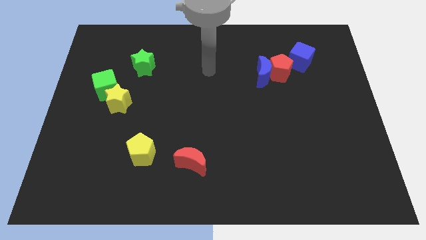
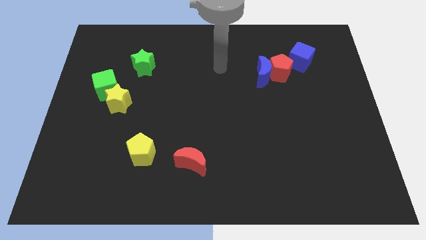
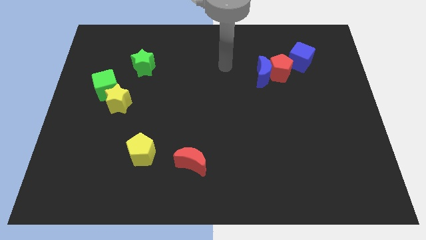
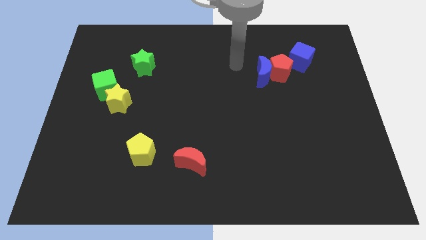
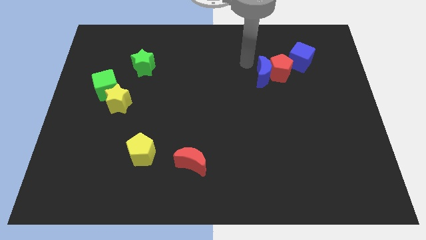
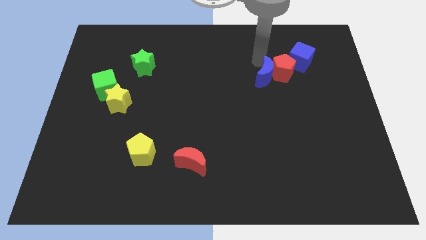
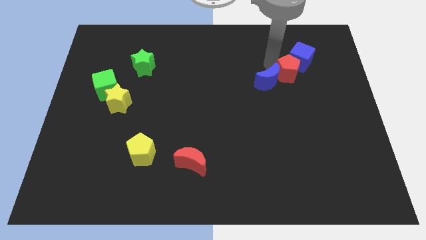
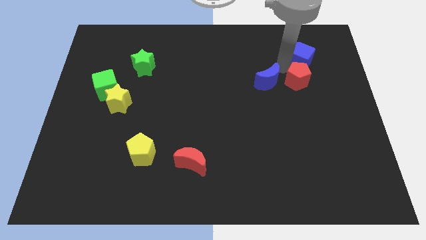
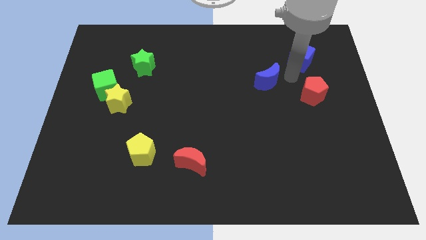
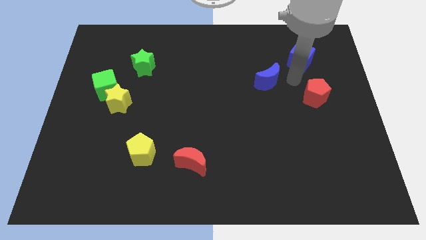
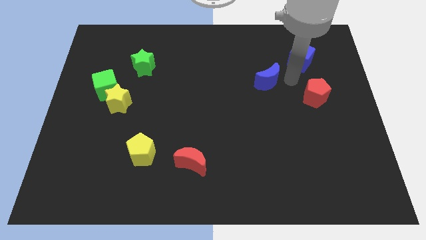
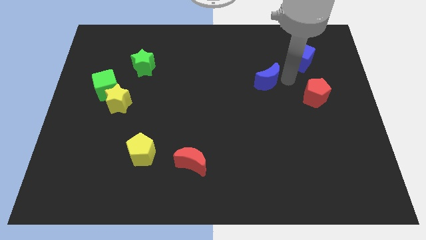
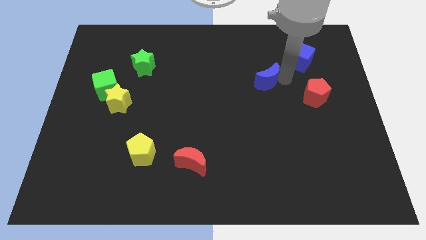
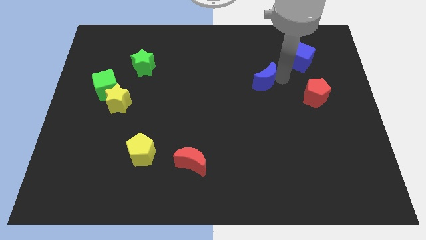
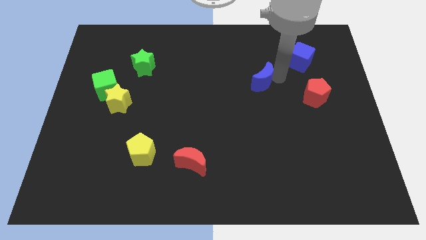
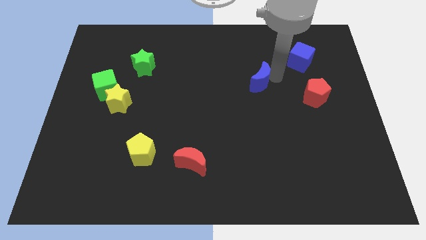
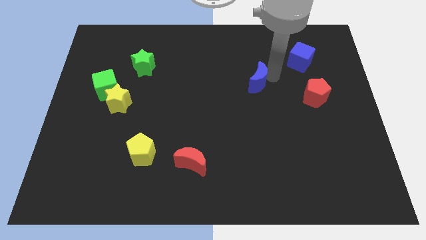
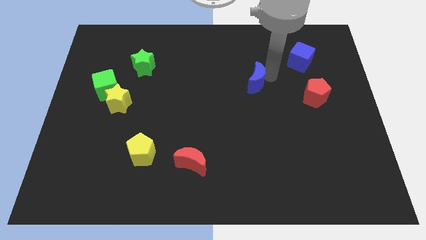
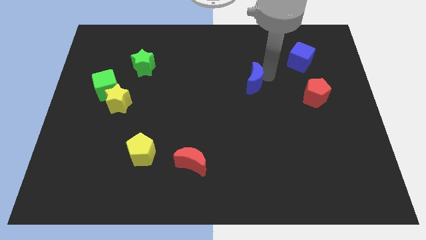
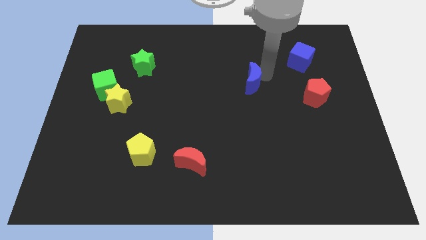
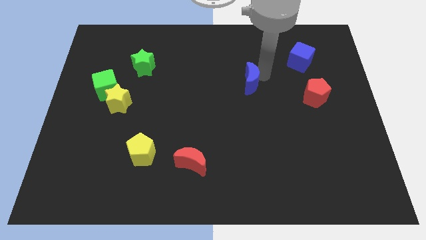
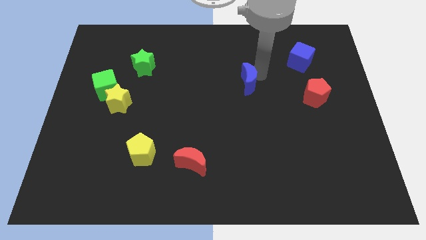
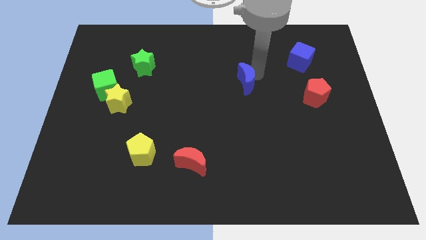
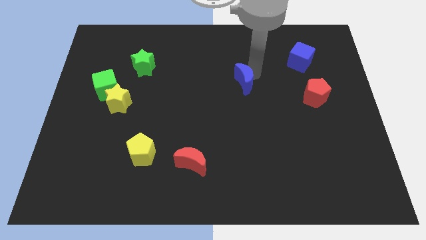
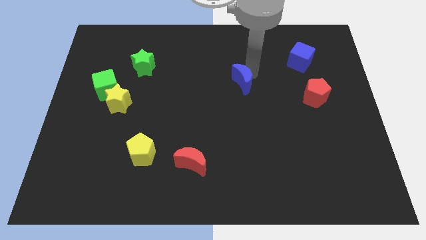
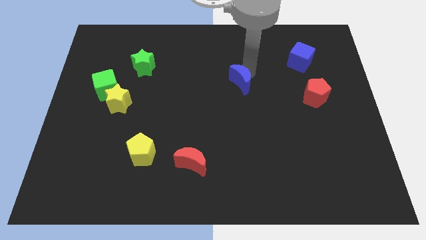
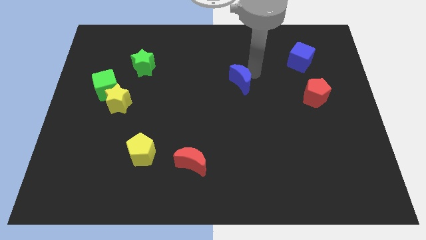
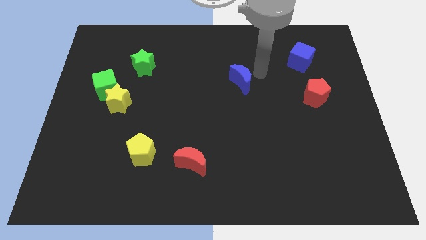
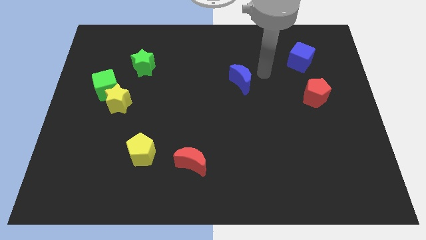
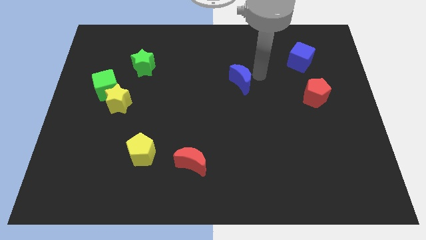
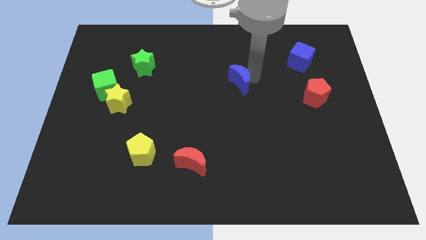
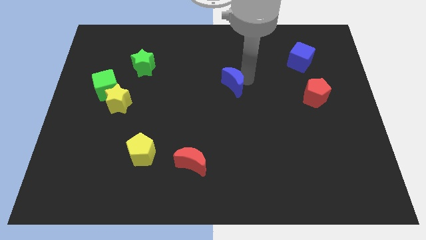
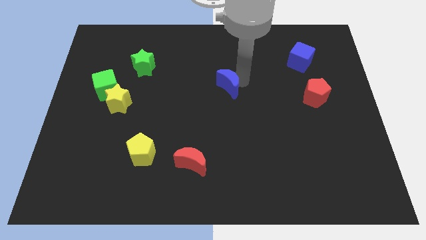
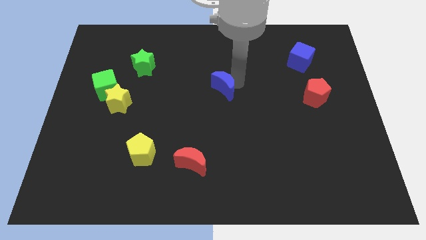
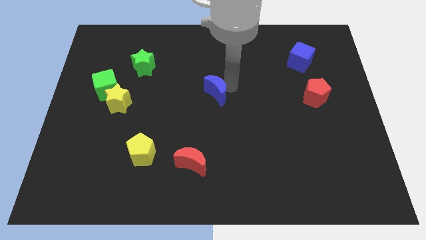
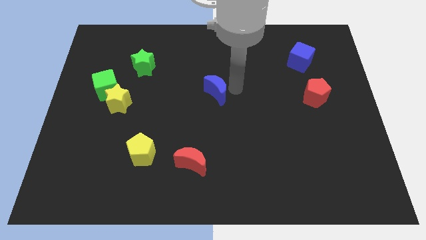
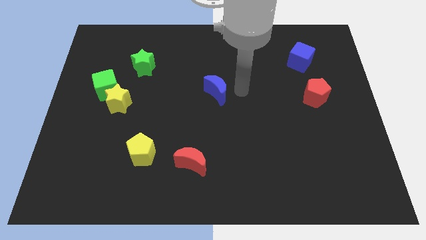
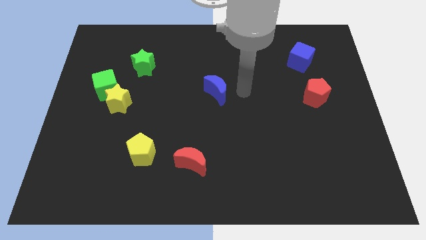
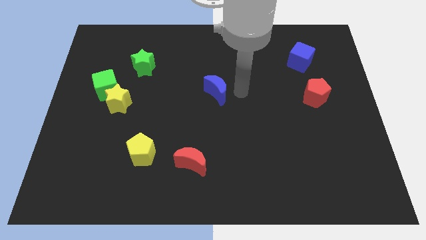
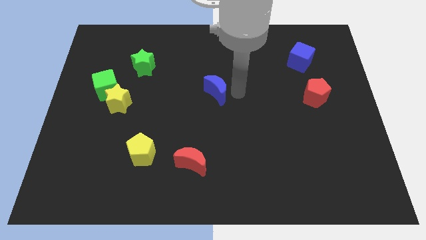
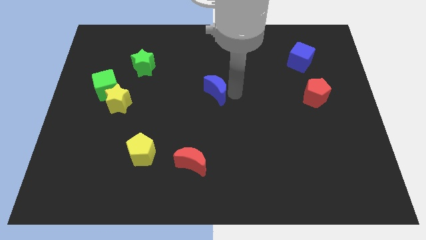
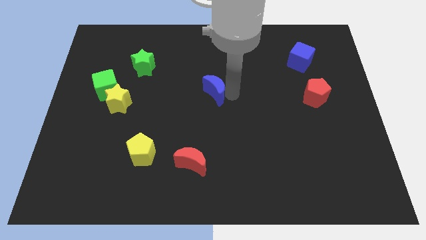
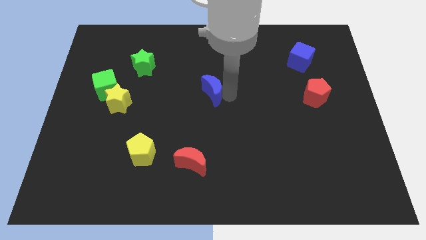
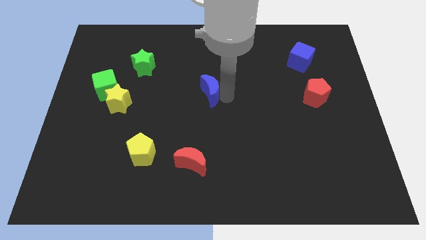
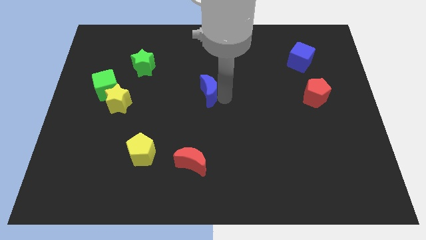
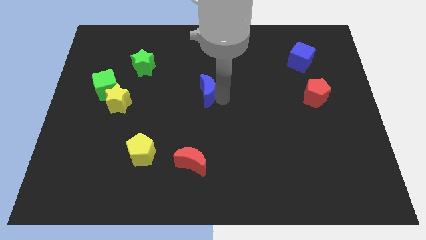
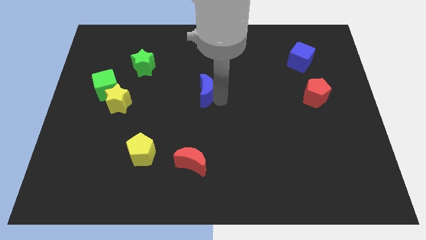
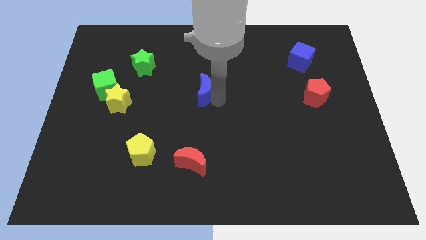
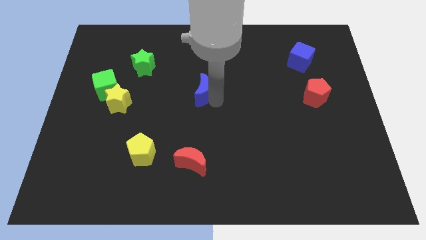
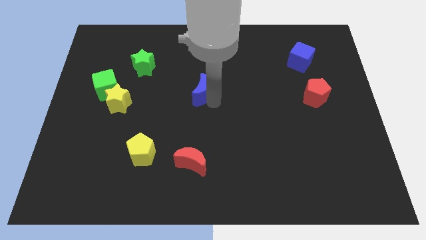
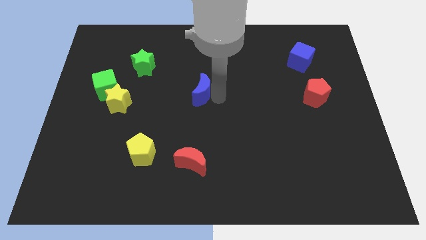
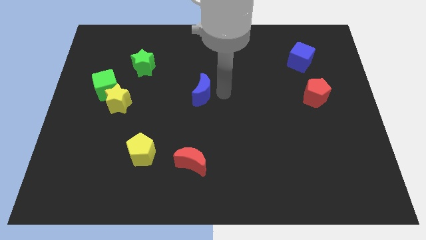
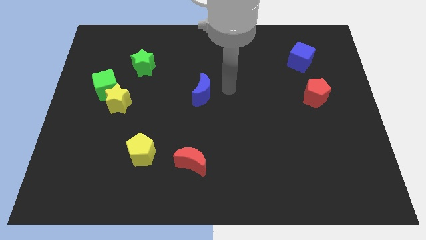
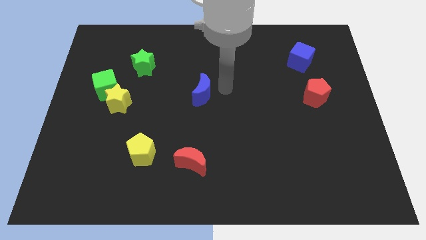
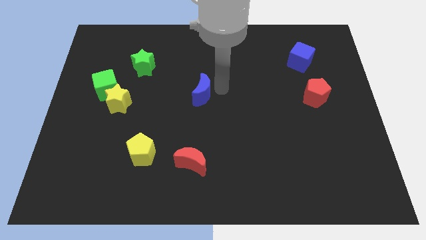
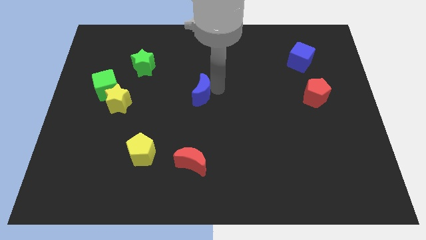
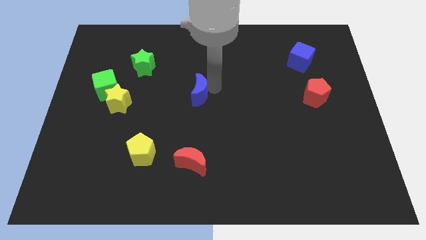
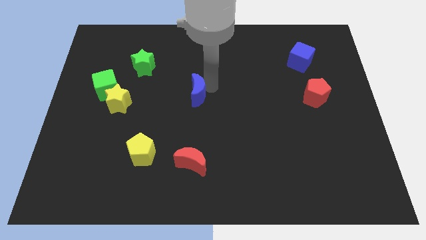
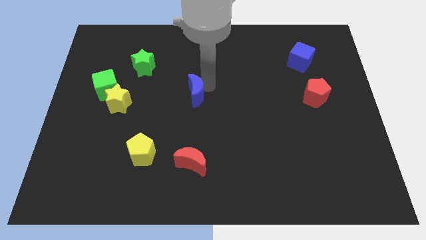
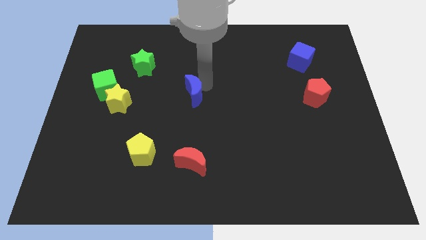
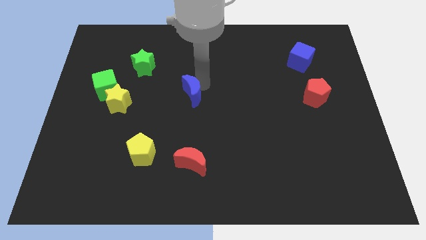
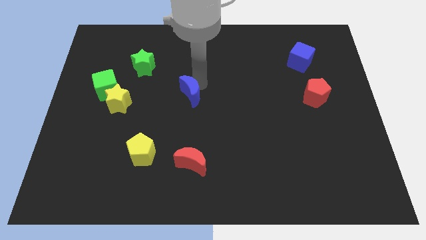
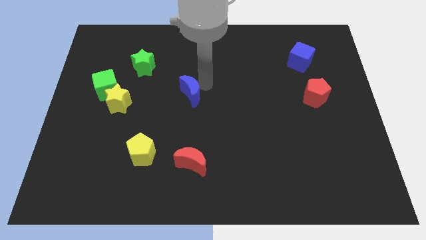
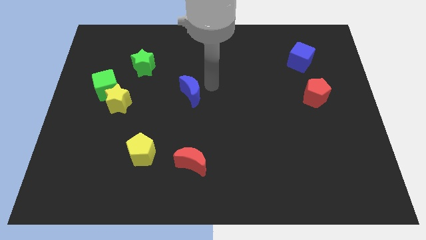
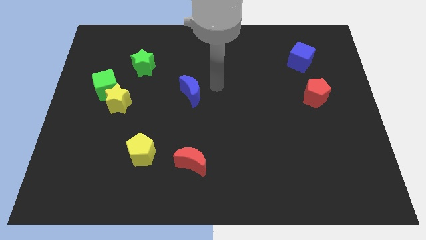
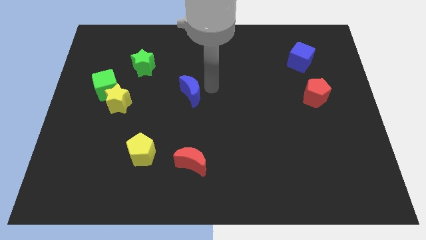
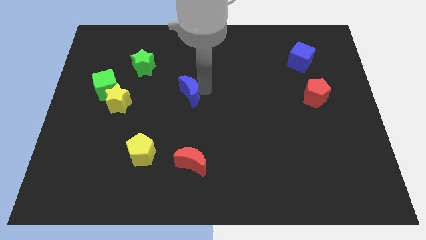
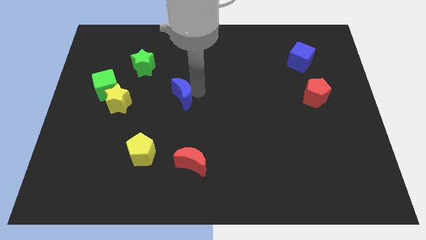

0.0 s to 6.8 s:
move the blue moon to the right of the yellow star

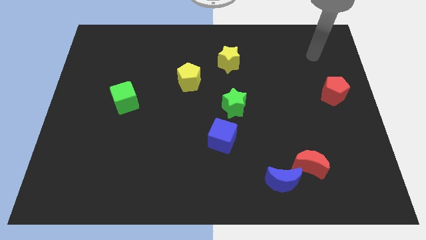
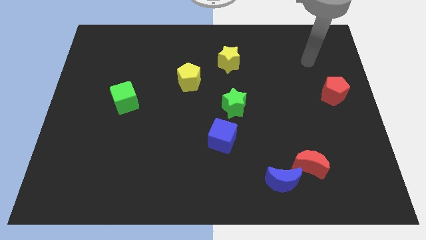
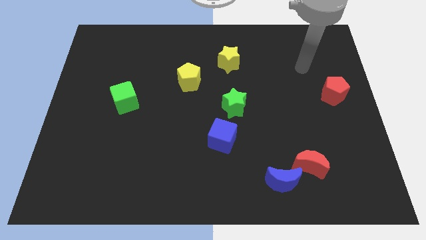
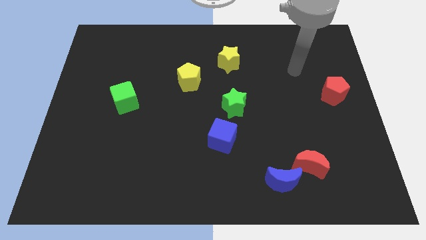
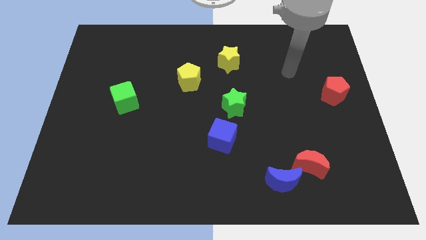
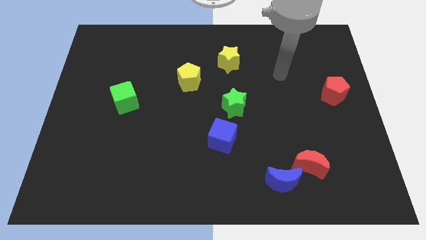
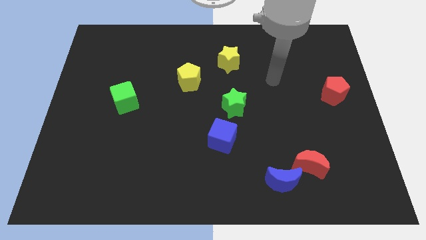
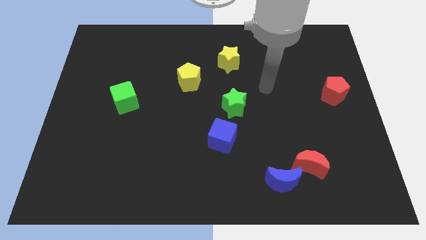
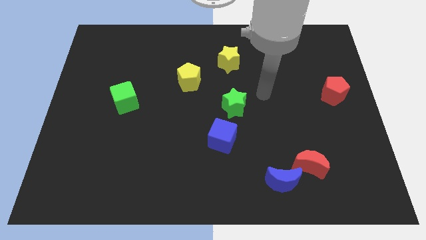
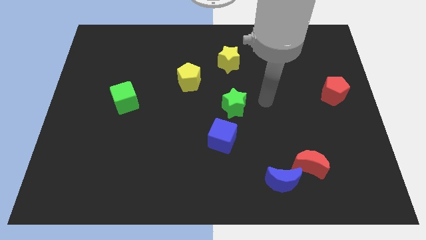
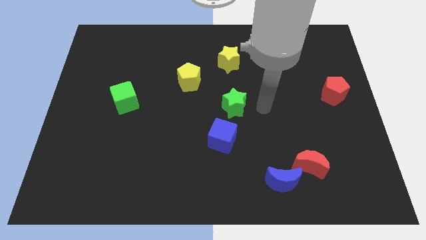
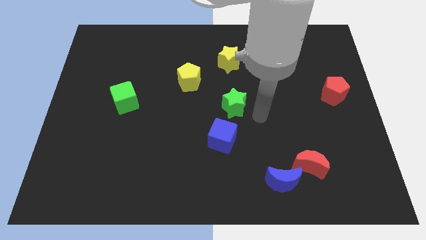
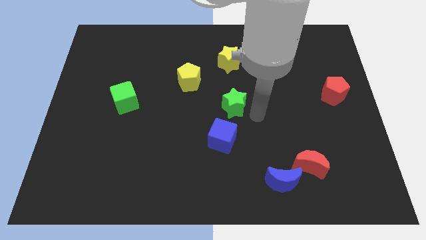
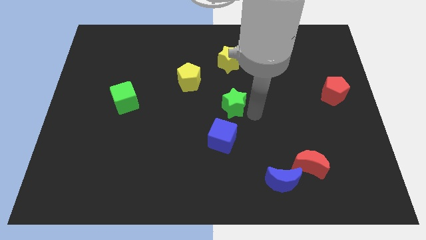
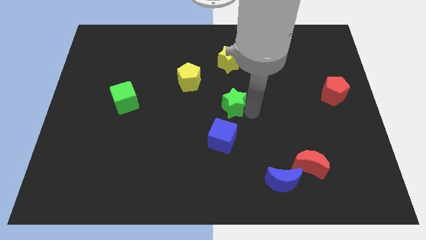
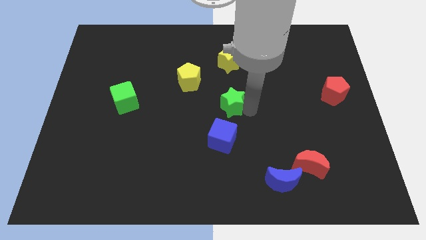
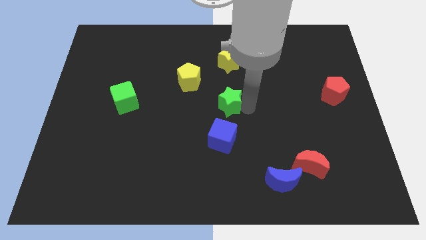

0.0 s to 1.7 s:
move the green star to the bottom right of the yellow pentagon
